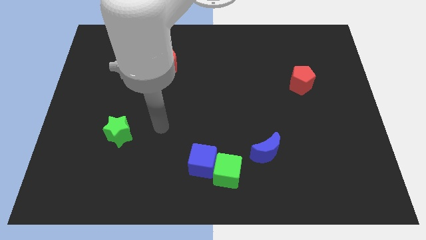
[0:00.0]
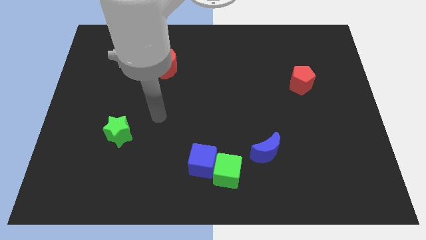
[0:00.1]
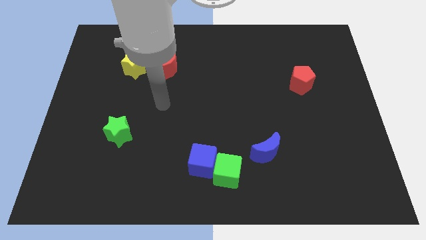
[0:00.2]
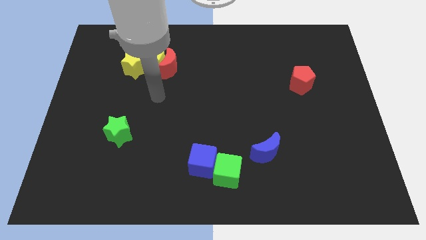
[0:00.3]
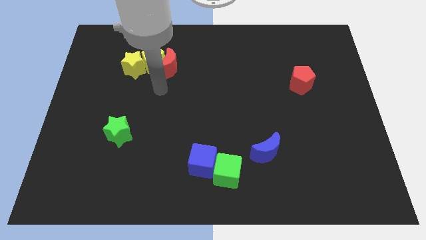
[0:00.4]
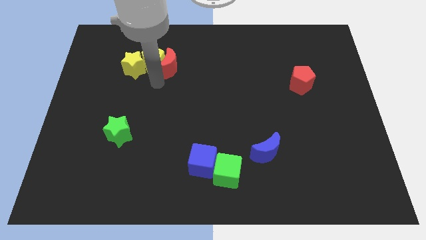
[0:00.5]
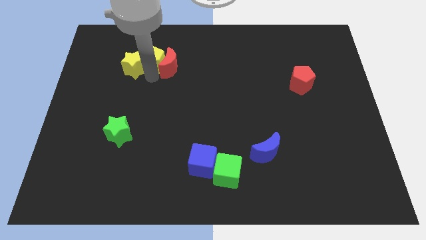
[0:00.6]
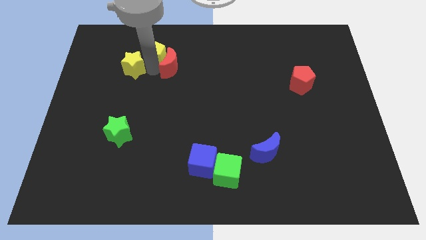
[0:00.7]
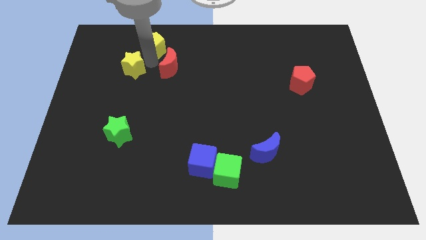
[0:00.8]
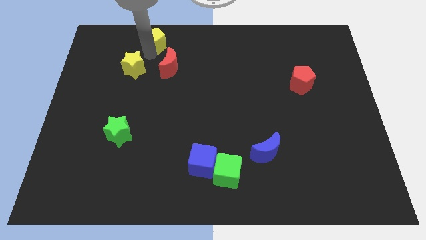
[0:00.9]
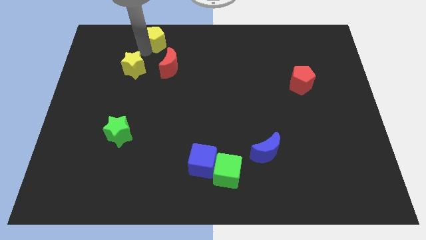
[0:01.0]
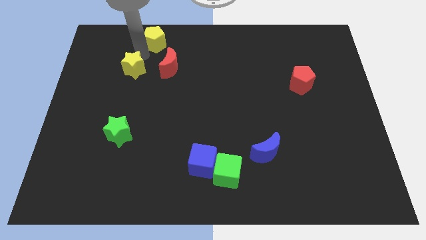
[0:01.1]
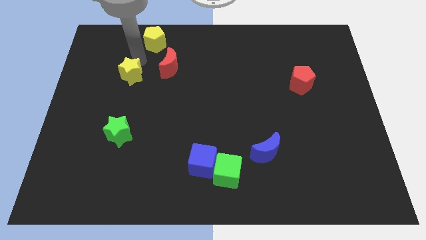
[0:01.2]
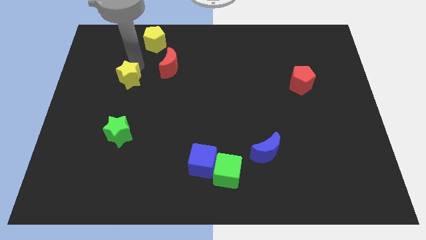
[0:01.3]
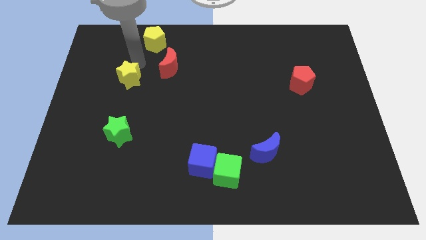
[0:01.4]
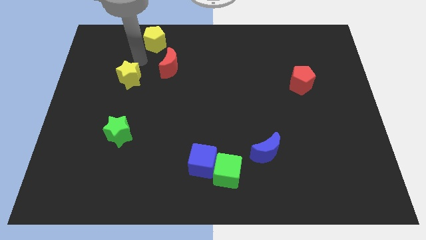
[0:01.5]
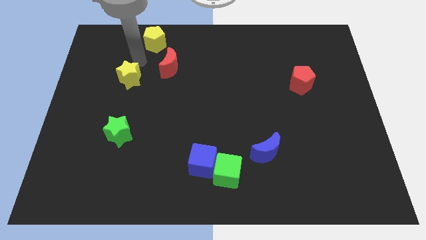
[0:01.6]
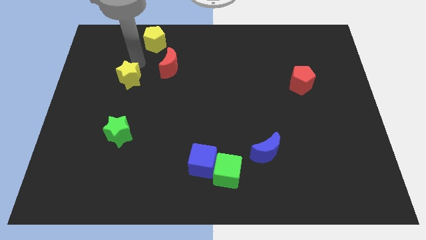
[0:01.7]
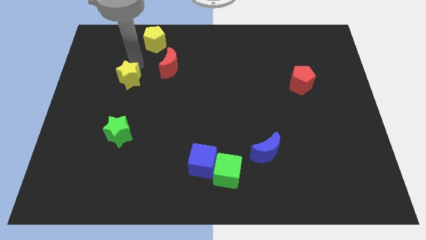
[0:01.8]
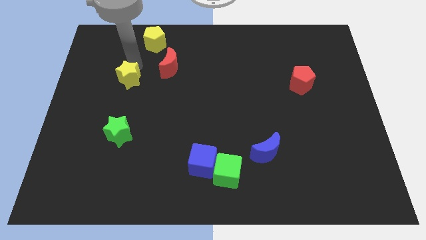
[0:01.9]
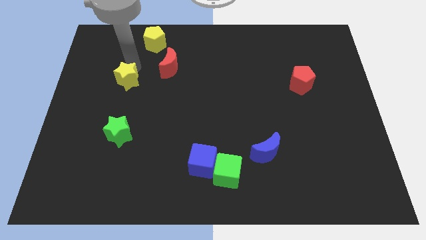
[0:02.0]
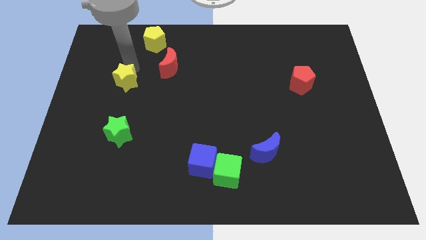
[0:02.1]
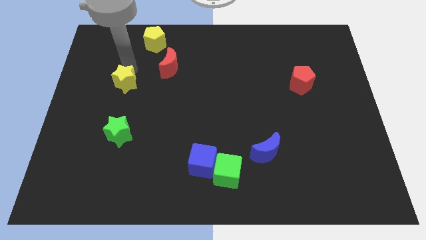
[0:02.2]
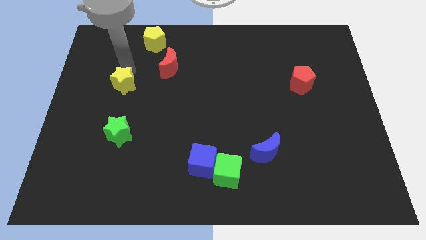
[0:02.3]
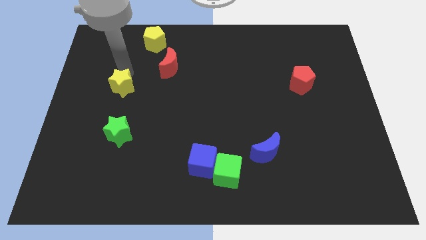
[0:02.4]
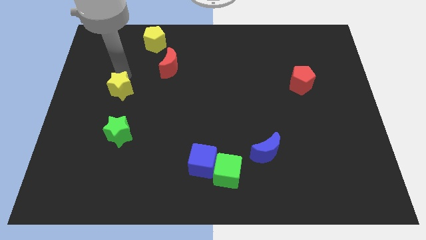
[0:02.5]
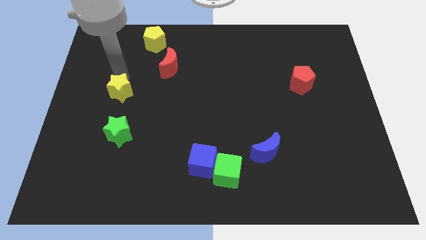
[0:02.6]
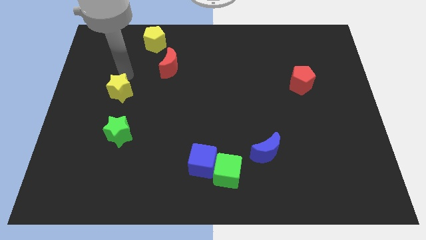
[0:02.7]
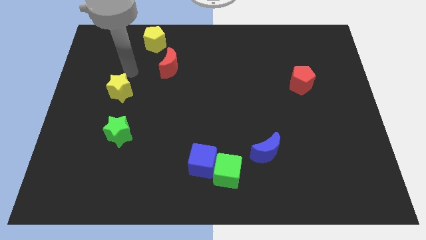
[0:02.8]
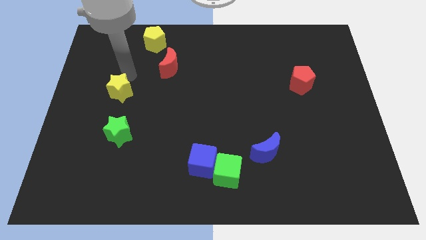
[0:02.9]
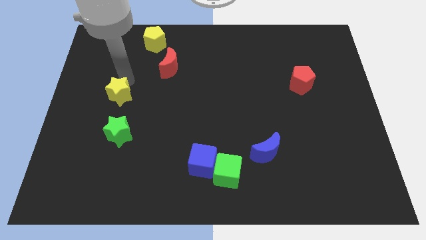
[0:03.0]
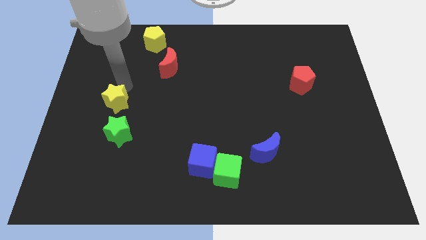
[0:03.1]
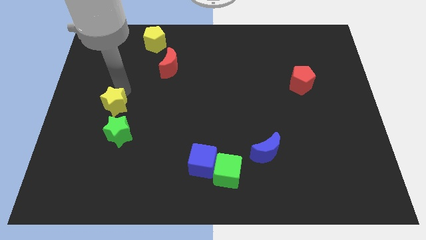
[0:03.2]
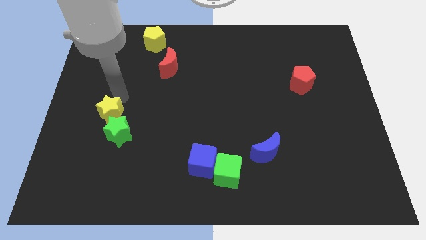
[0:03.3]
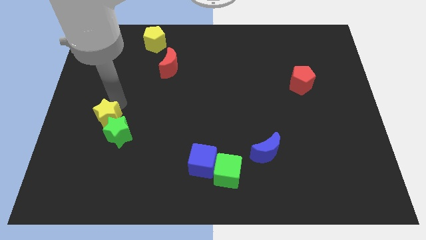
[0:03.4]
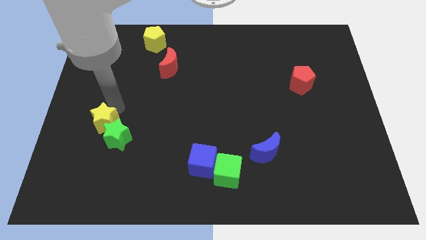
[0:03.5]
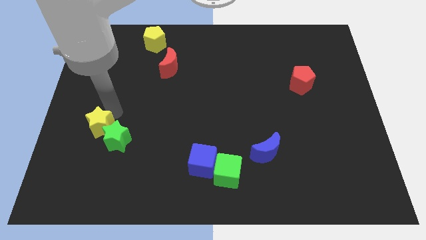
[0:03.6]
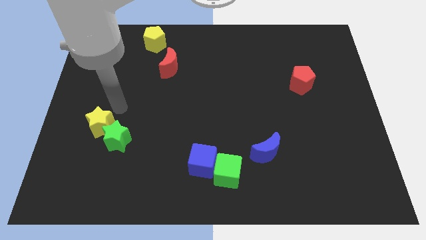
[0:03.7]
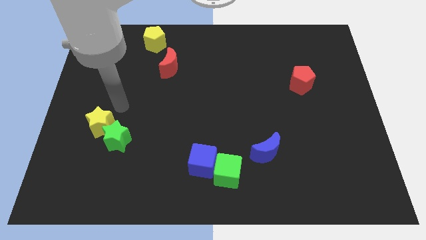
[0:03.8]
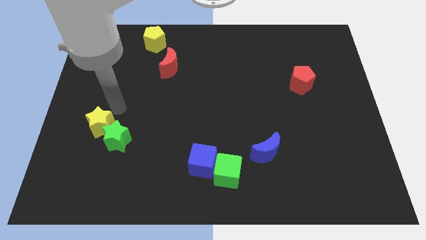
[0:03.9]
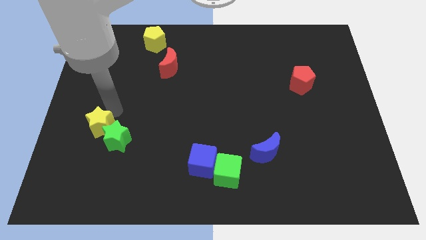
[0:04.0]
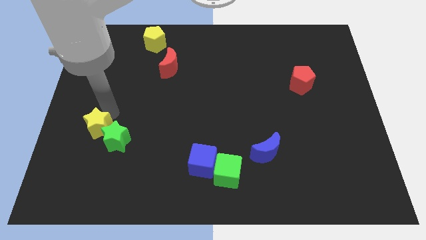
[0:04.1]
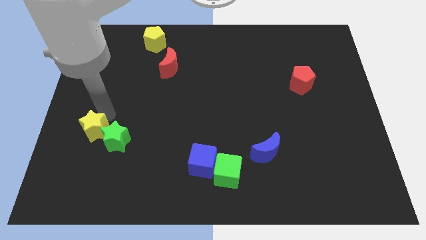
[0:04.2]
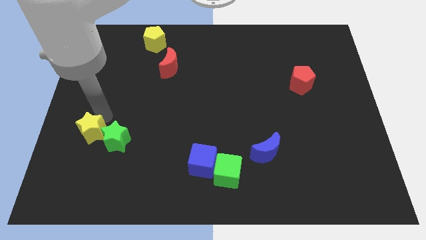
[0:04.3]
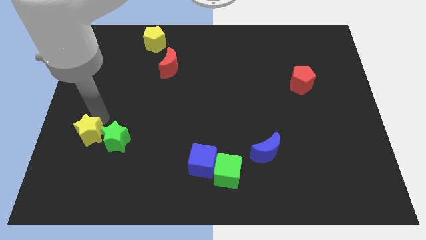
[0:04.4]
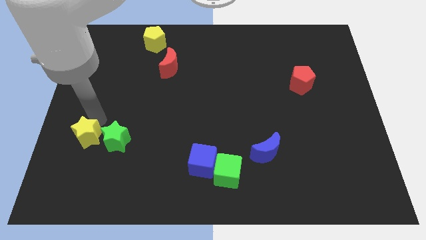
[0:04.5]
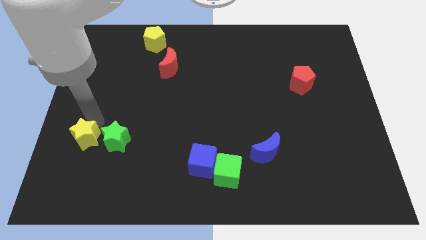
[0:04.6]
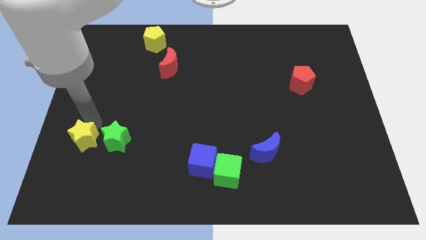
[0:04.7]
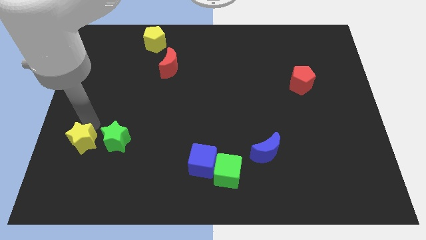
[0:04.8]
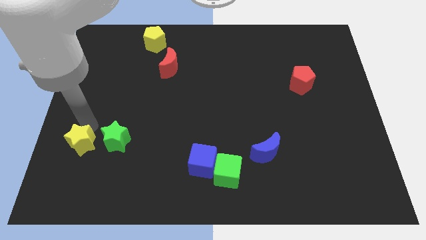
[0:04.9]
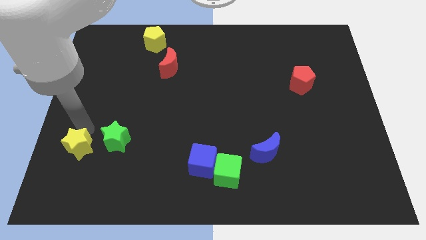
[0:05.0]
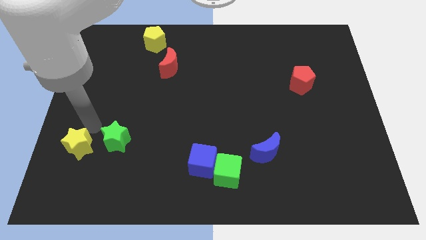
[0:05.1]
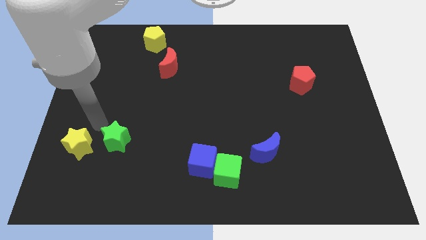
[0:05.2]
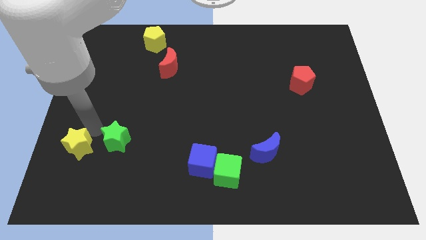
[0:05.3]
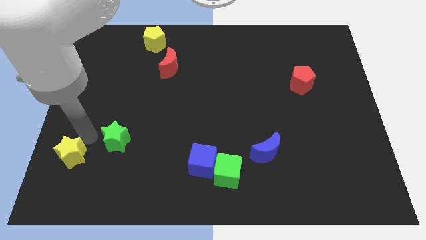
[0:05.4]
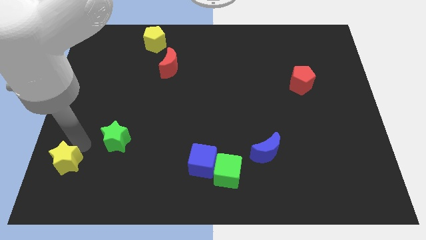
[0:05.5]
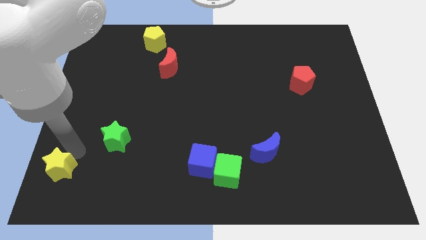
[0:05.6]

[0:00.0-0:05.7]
put the yellow star to the lower left corner
